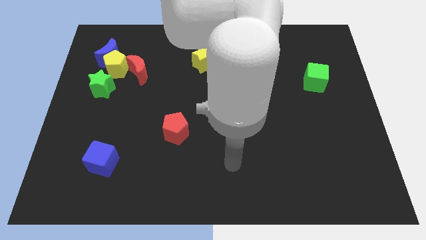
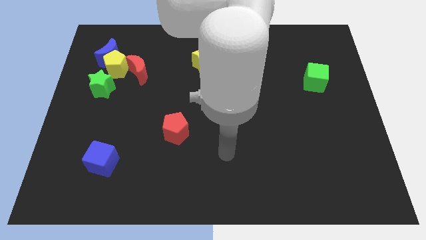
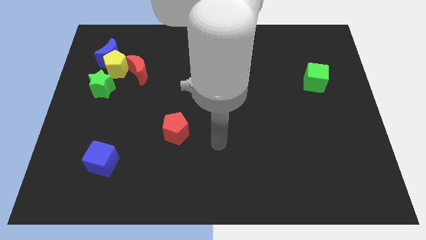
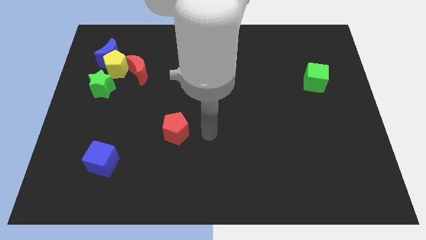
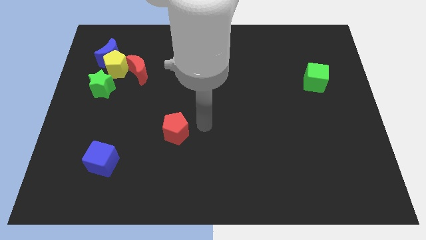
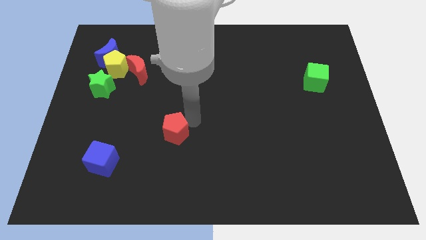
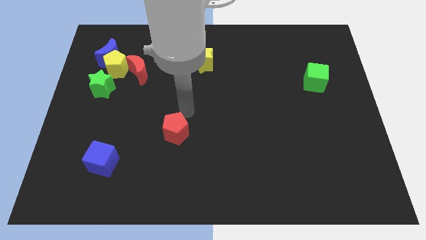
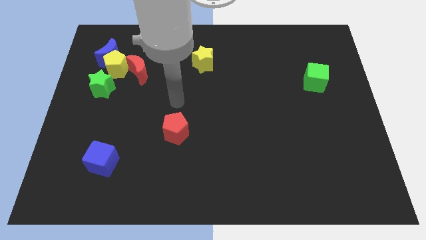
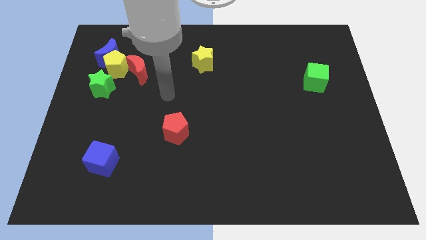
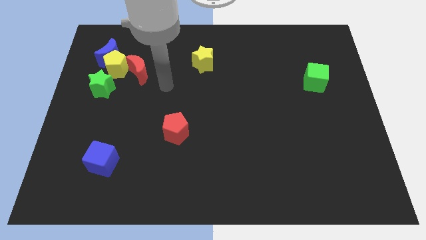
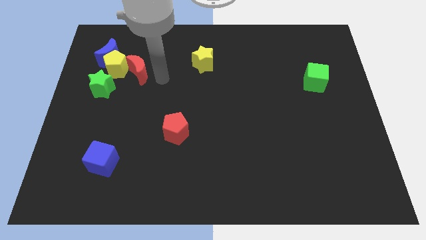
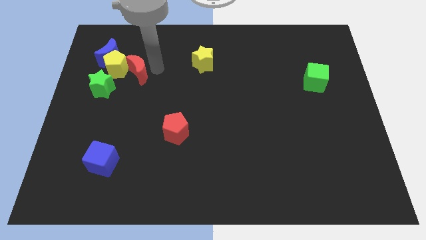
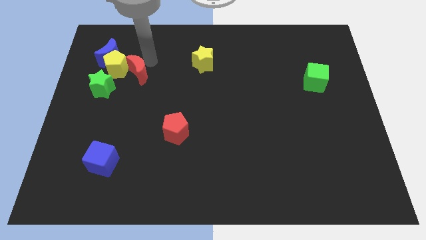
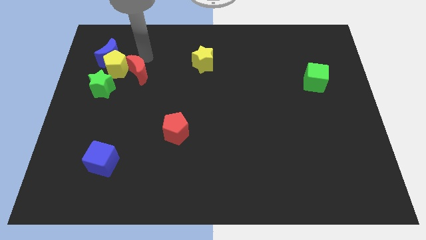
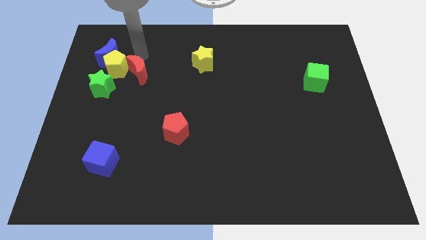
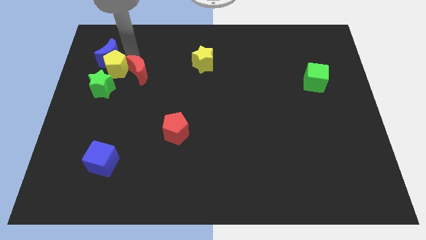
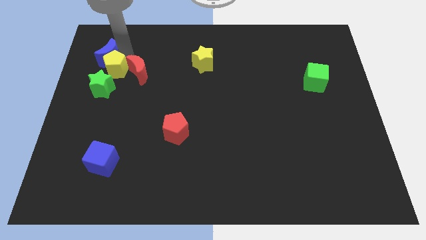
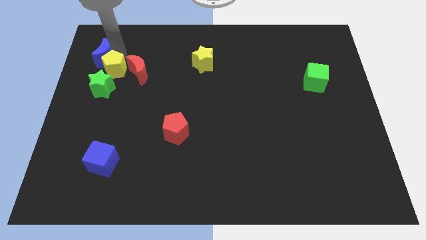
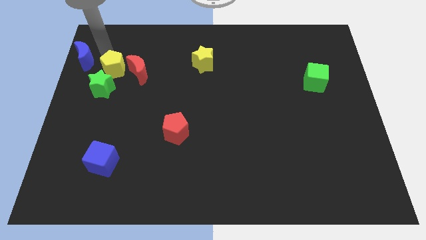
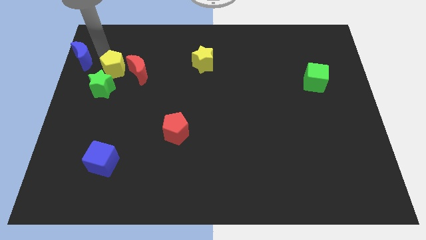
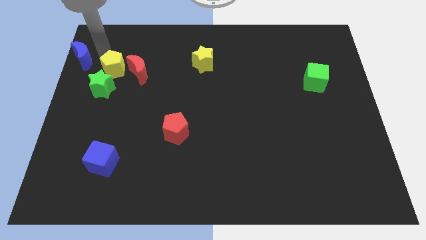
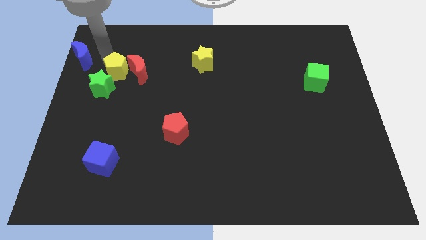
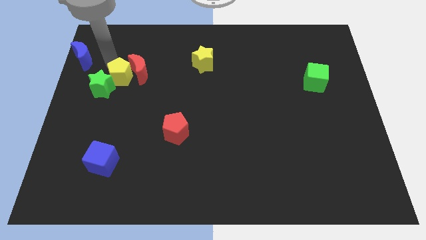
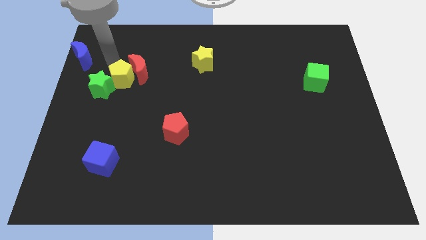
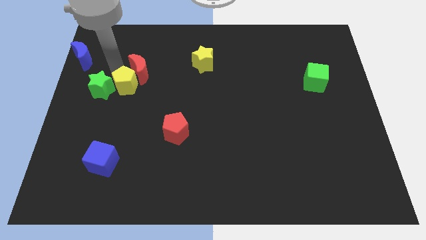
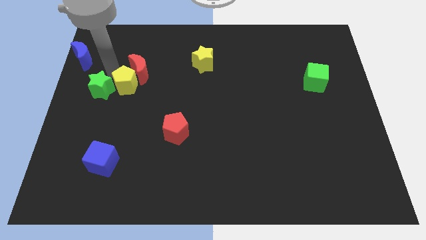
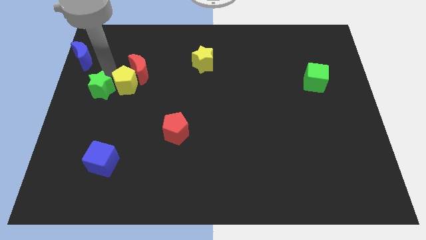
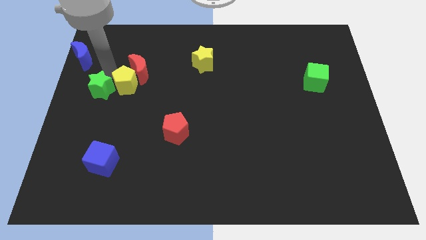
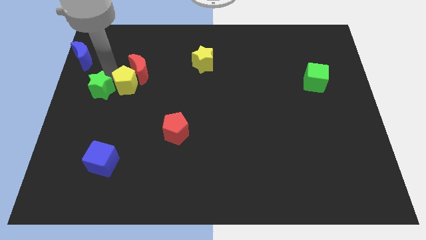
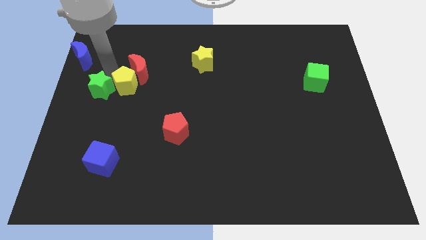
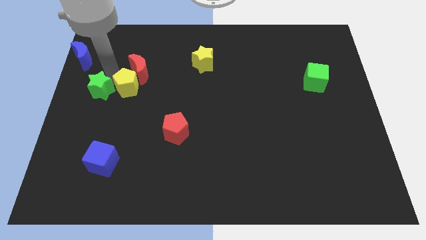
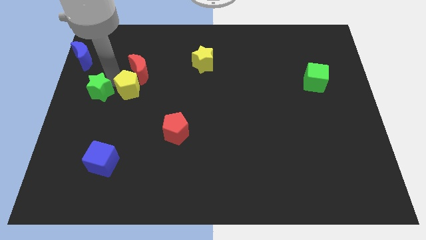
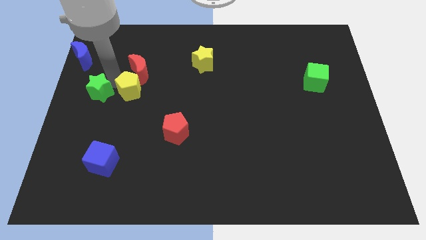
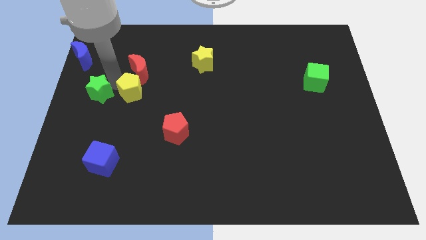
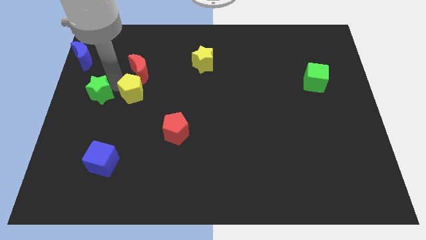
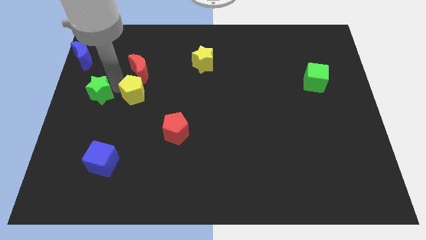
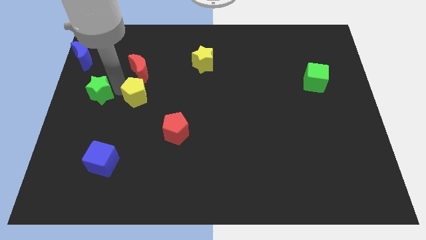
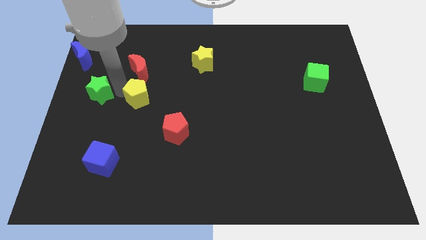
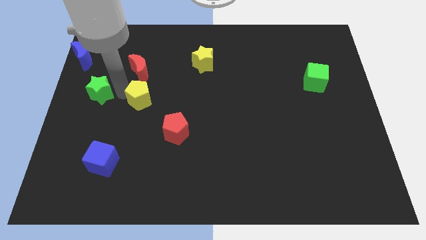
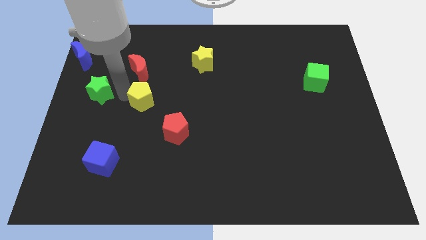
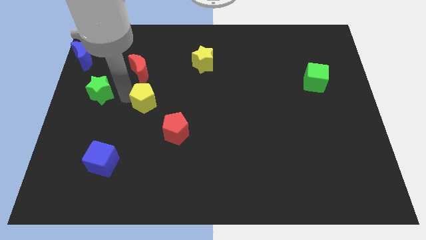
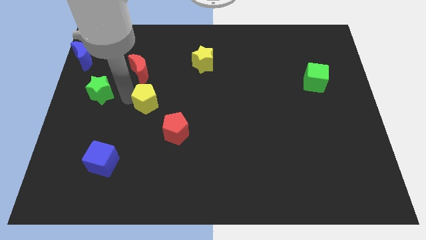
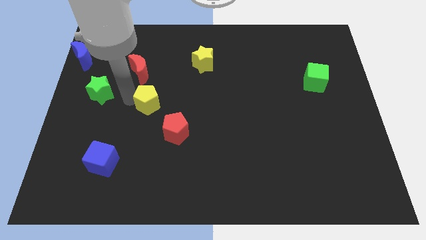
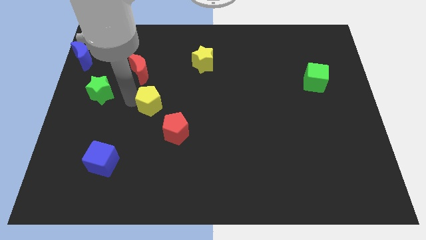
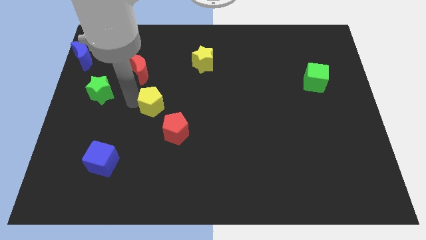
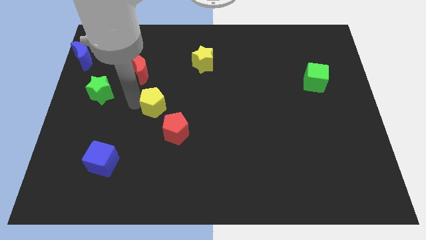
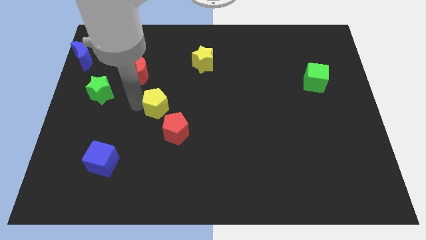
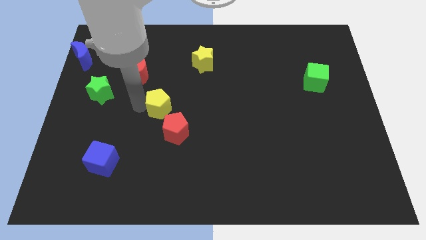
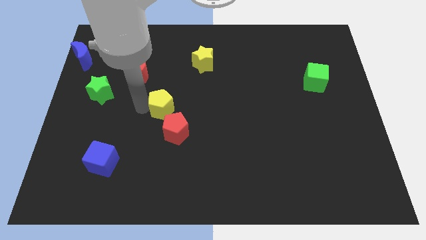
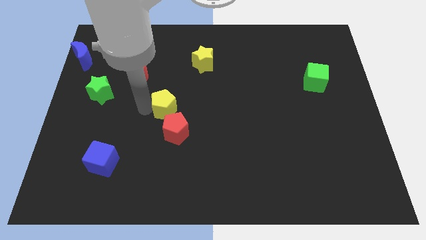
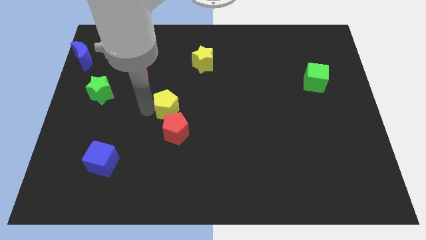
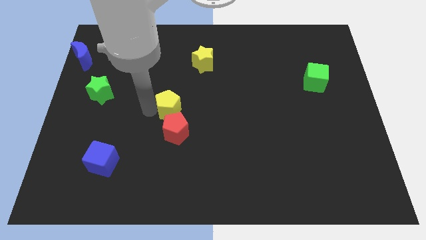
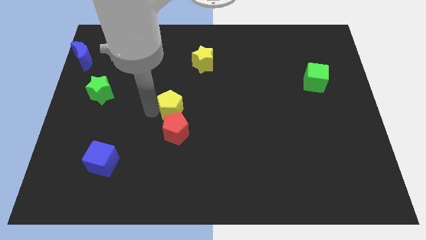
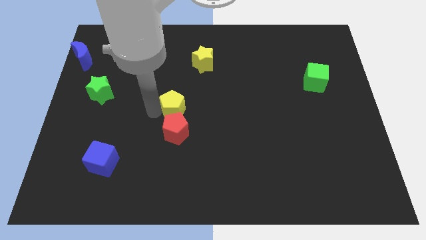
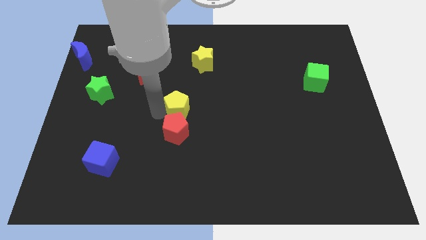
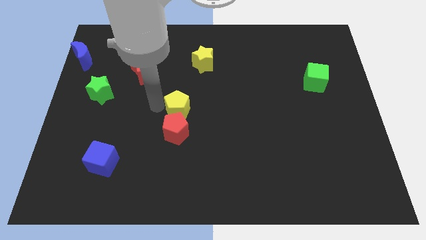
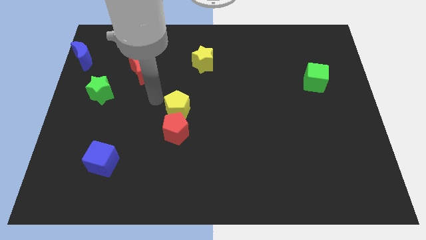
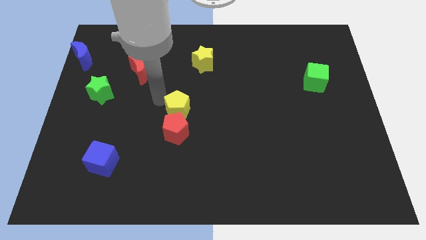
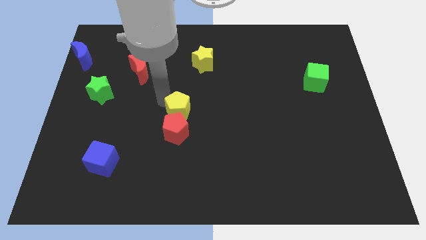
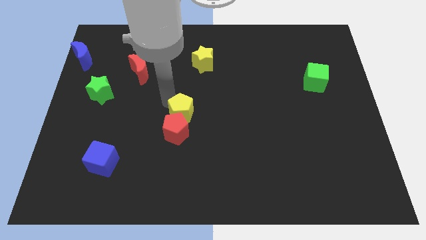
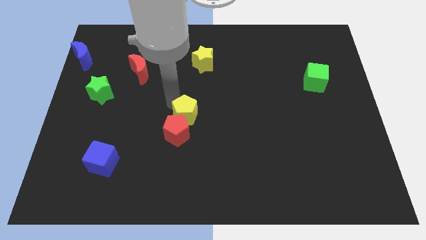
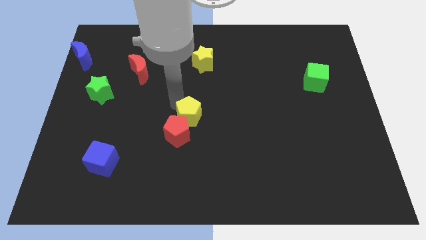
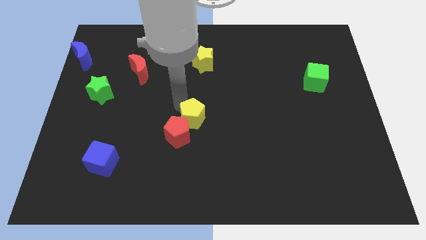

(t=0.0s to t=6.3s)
push the yellow pentagon to the right of the red pentagon

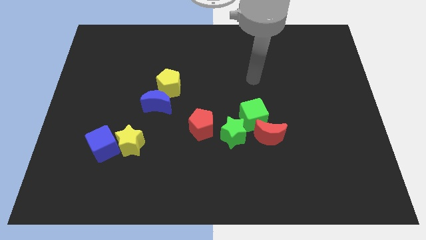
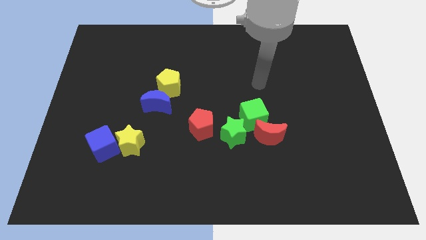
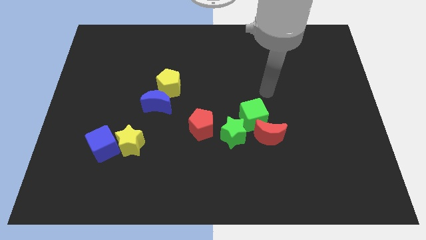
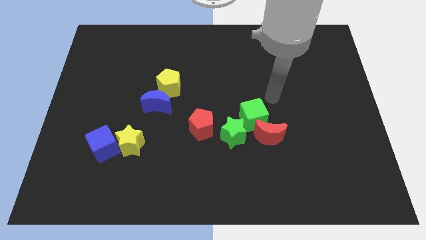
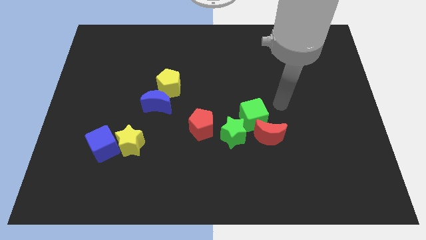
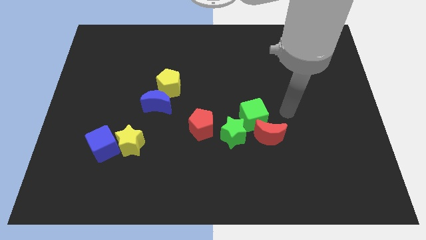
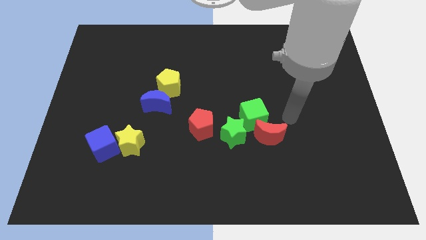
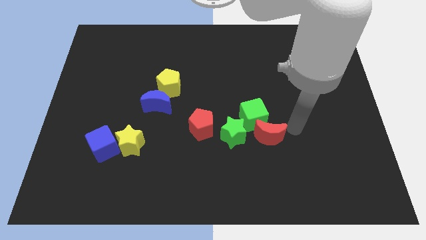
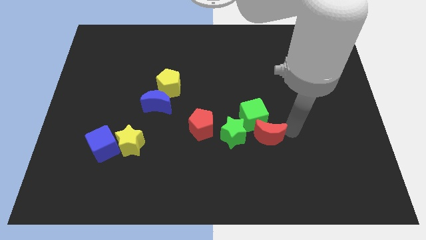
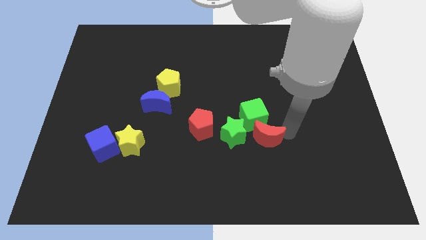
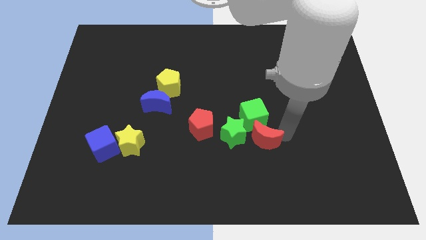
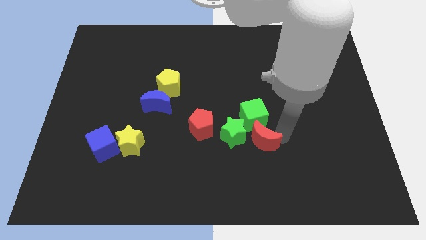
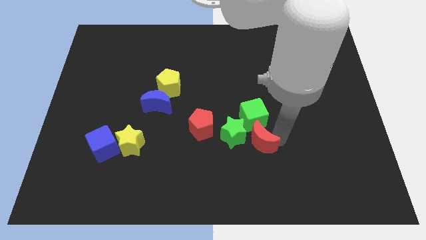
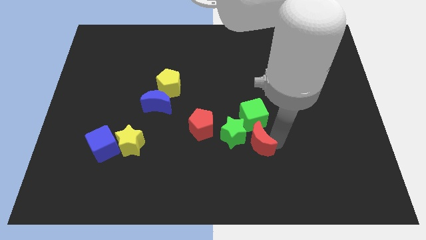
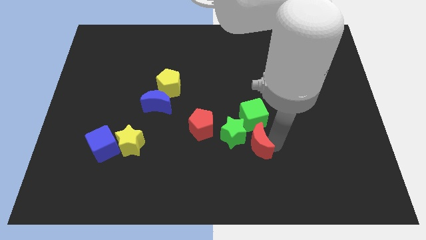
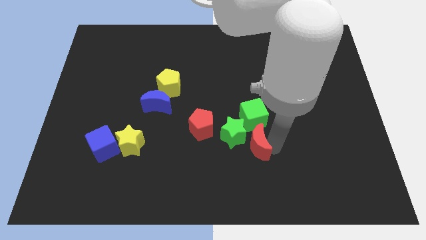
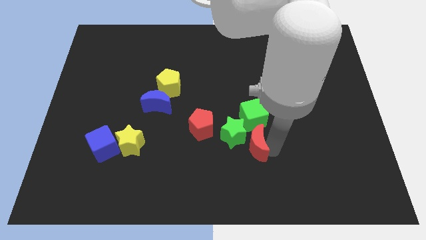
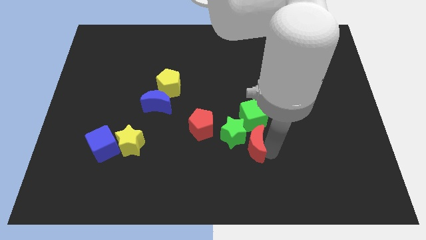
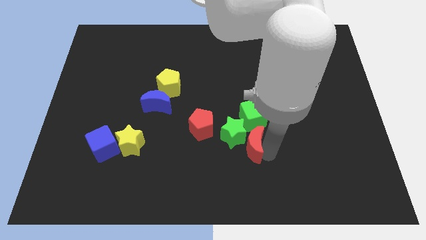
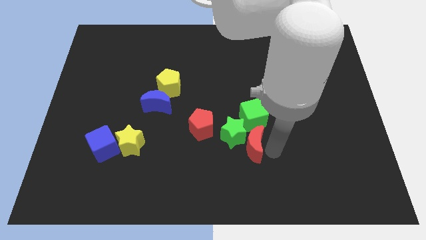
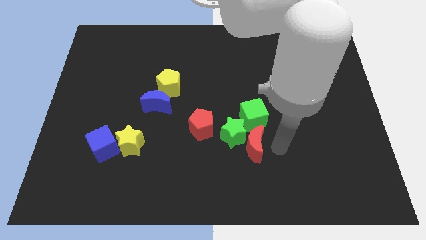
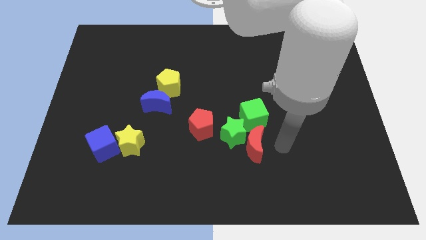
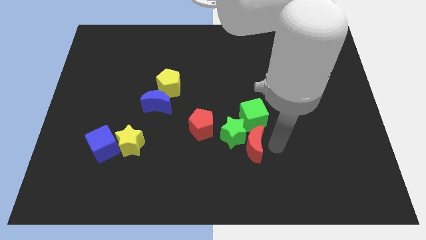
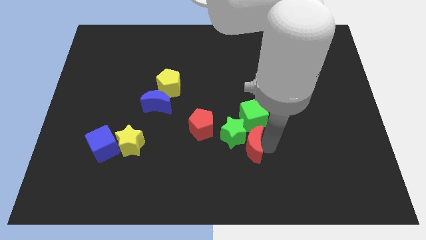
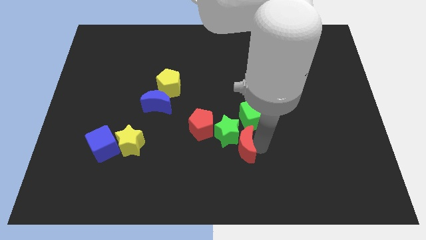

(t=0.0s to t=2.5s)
put the red moon to the bottom right of the red pentagon
